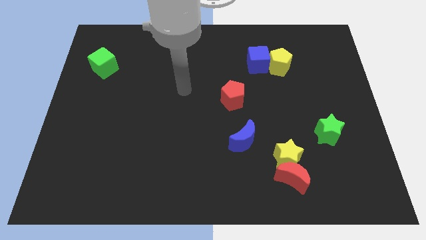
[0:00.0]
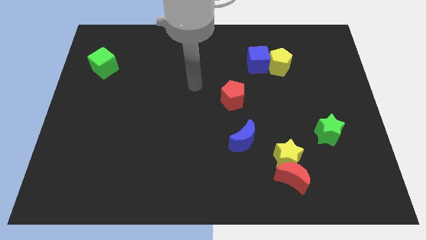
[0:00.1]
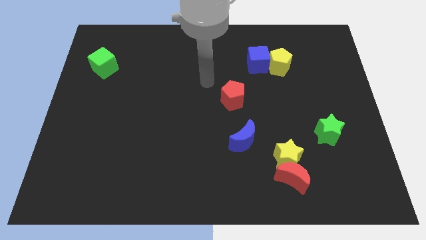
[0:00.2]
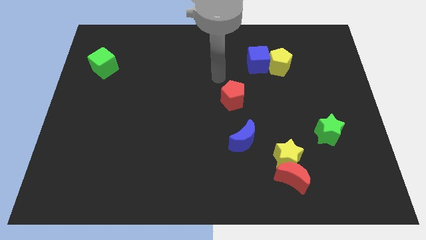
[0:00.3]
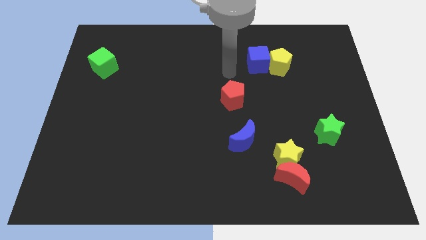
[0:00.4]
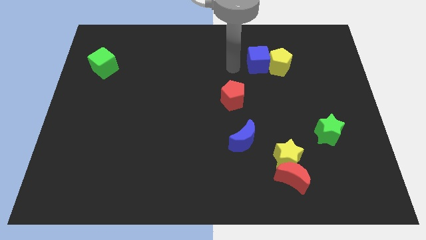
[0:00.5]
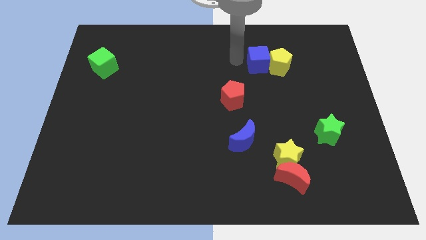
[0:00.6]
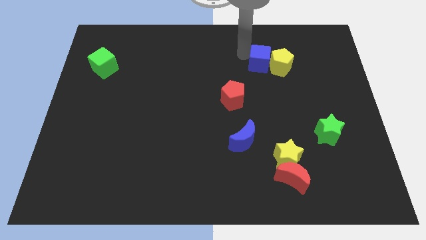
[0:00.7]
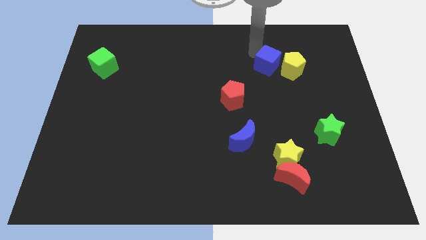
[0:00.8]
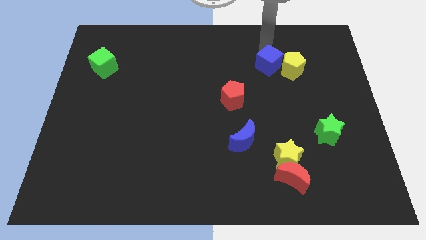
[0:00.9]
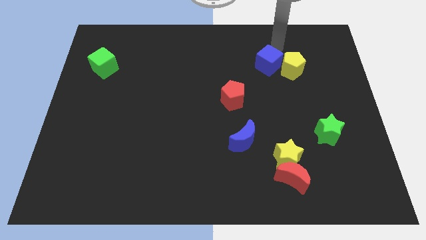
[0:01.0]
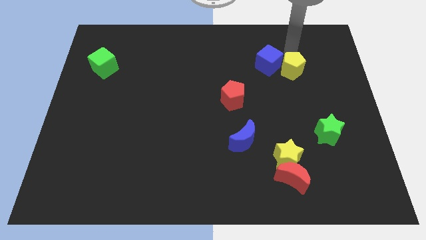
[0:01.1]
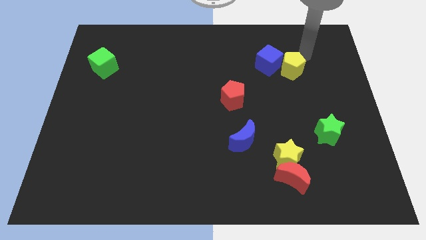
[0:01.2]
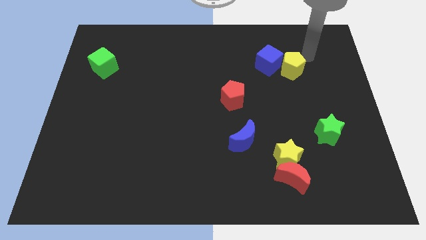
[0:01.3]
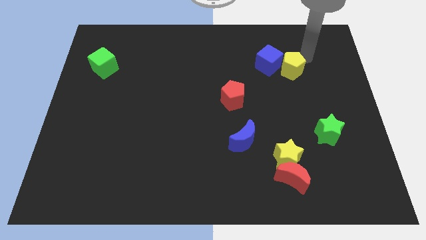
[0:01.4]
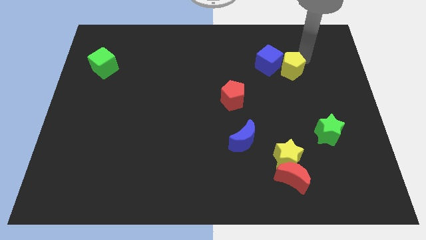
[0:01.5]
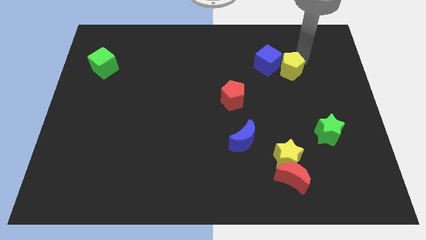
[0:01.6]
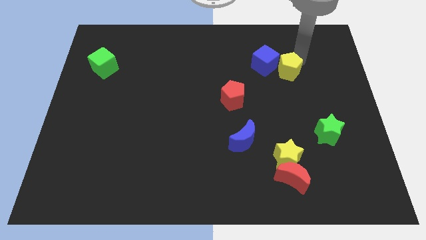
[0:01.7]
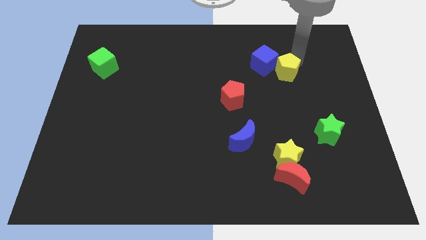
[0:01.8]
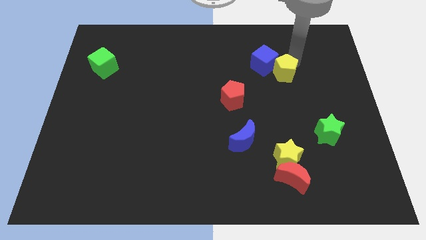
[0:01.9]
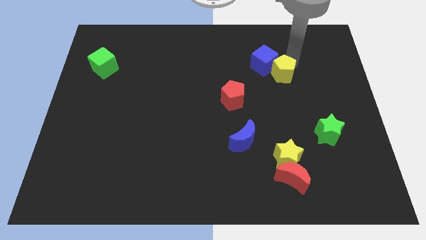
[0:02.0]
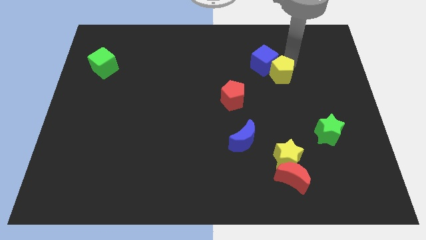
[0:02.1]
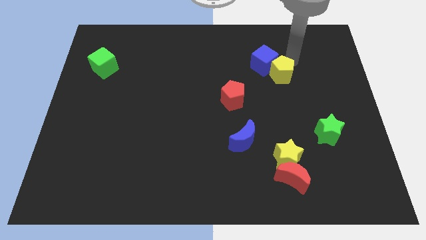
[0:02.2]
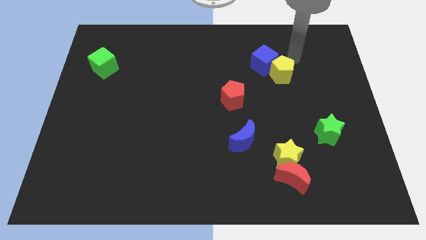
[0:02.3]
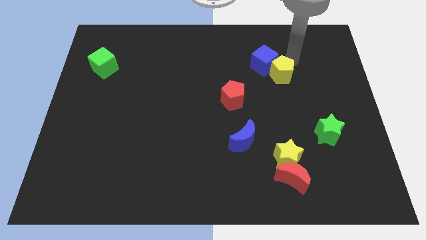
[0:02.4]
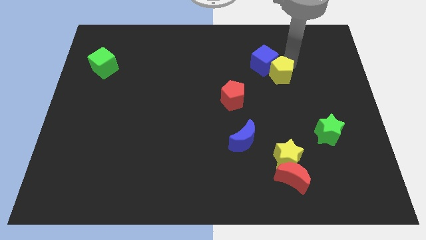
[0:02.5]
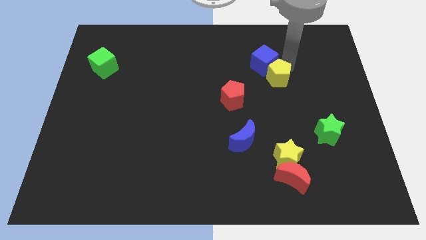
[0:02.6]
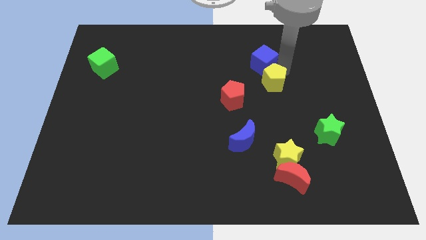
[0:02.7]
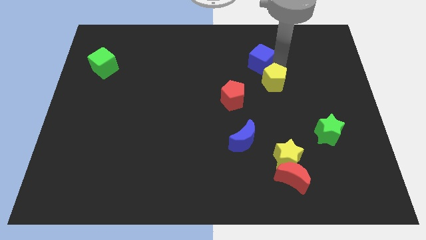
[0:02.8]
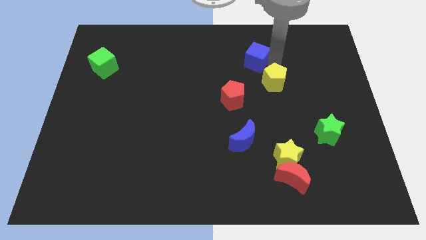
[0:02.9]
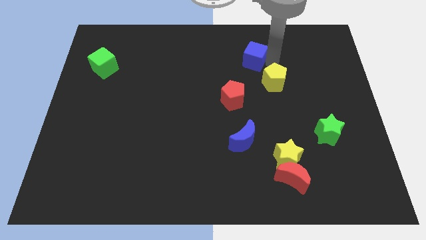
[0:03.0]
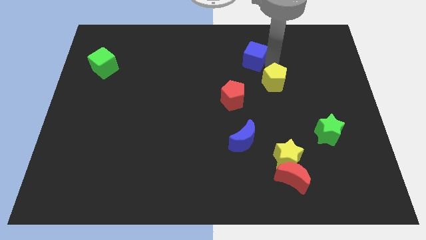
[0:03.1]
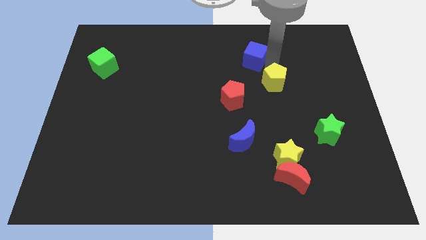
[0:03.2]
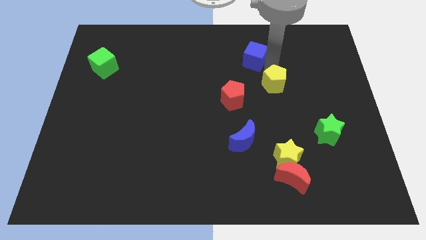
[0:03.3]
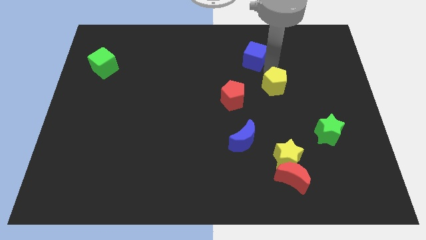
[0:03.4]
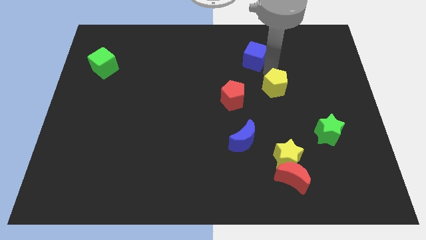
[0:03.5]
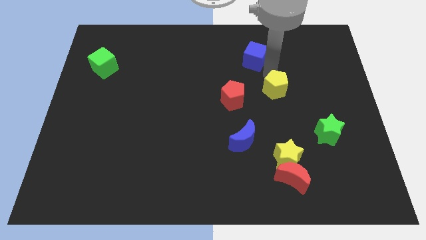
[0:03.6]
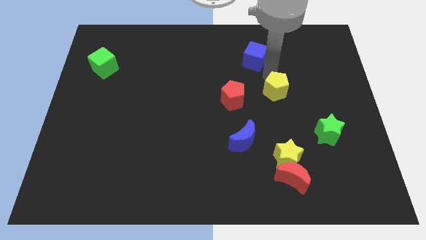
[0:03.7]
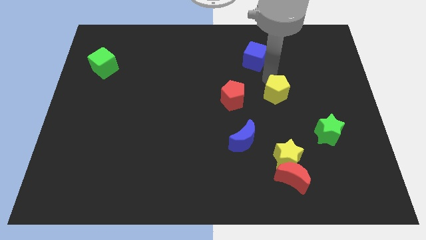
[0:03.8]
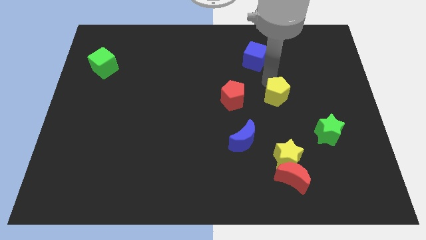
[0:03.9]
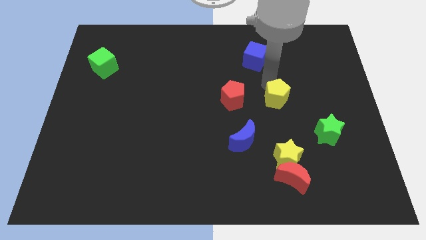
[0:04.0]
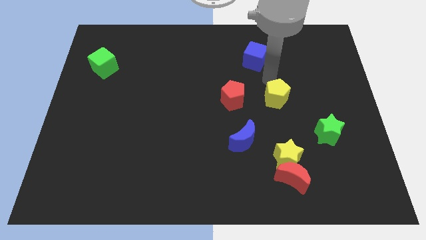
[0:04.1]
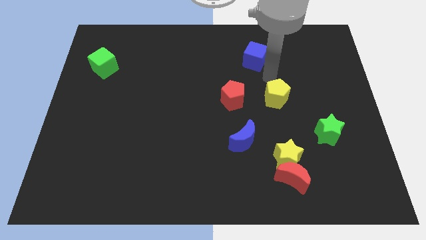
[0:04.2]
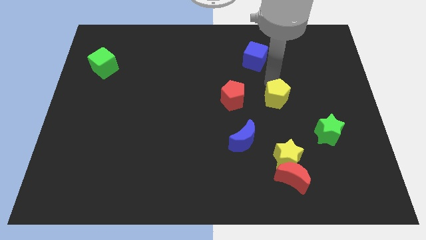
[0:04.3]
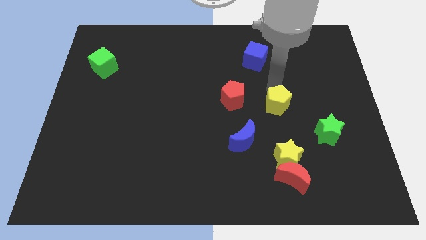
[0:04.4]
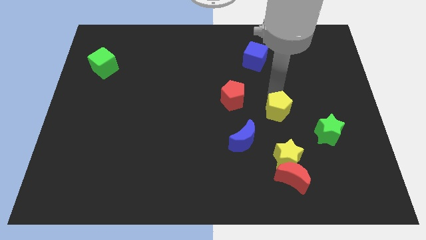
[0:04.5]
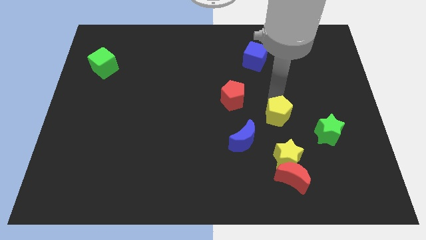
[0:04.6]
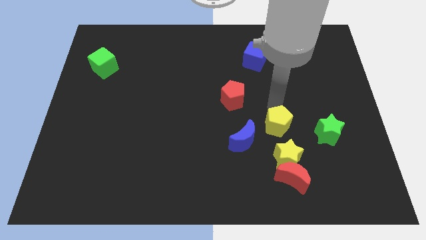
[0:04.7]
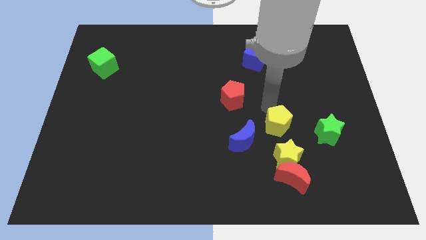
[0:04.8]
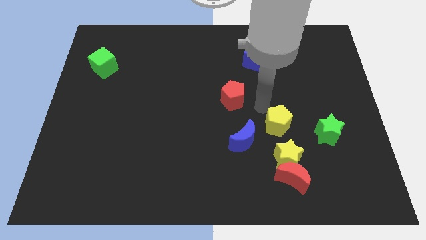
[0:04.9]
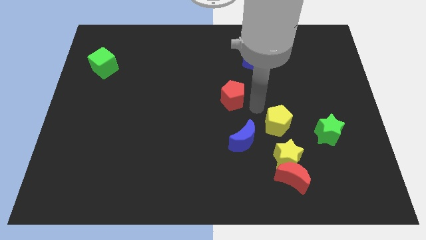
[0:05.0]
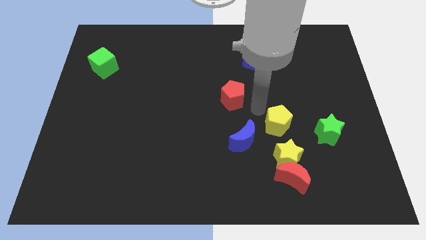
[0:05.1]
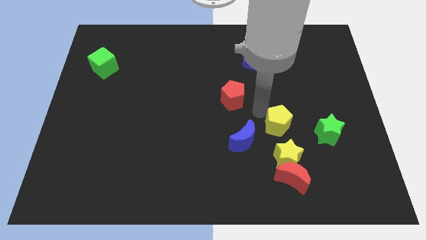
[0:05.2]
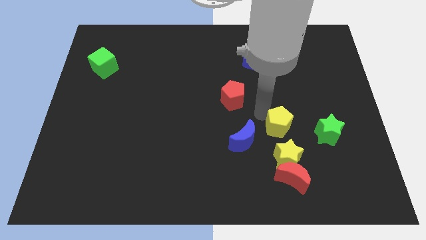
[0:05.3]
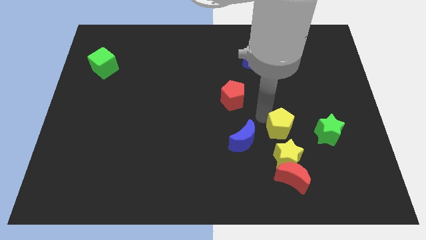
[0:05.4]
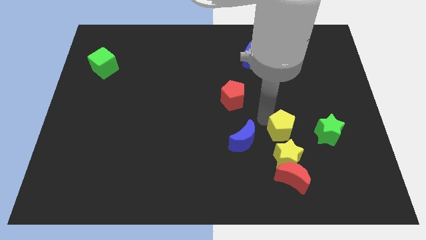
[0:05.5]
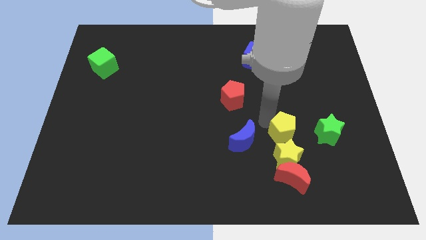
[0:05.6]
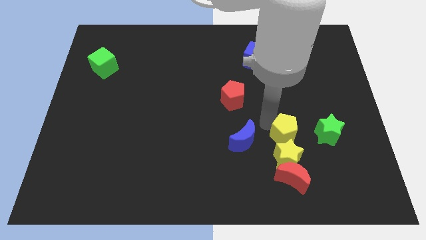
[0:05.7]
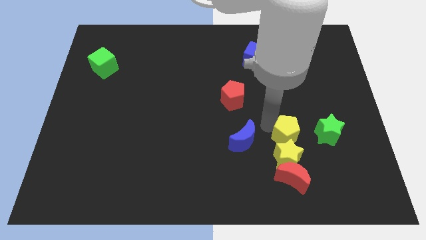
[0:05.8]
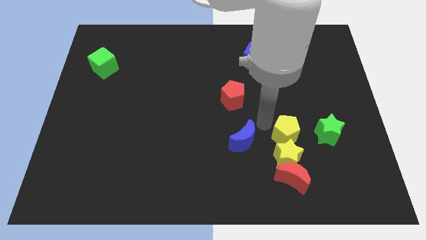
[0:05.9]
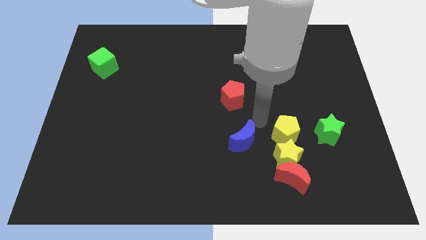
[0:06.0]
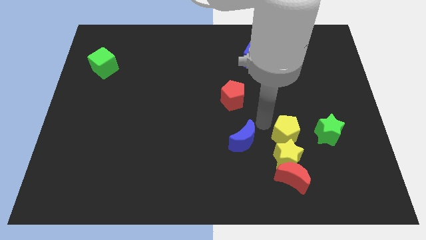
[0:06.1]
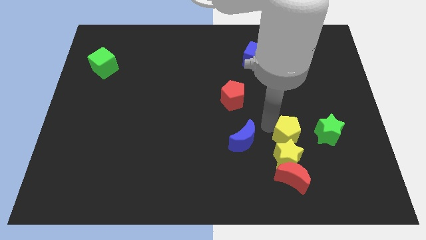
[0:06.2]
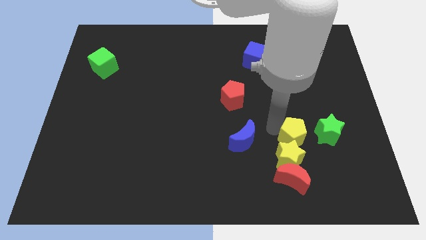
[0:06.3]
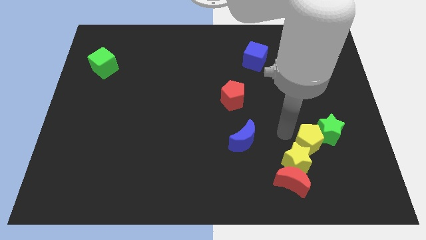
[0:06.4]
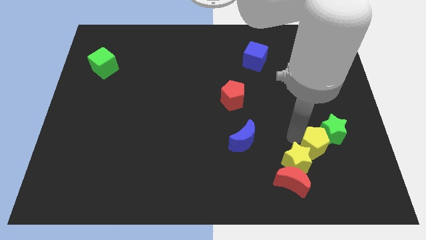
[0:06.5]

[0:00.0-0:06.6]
push the yellow pentagon just right of the yellow star

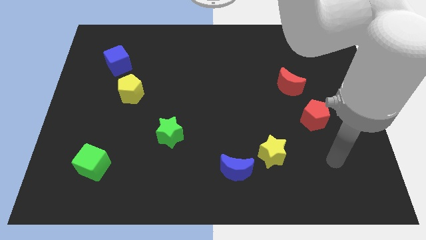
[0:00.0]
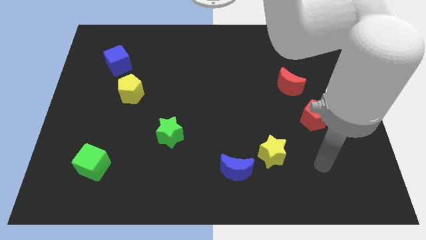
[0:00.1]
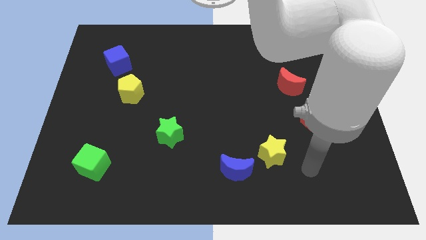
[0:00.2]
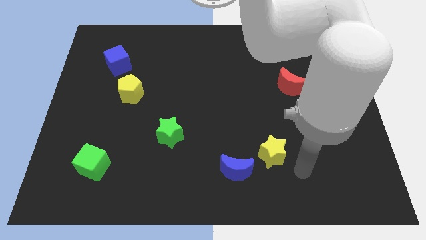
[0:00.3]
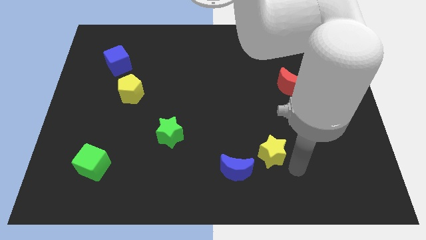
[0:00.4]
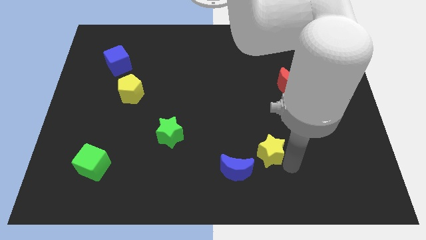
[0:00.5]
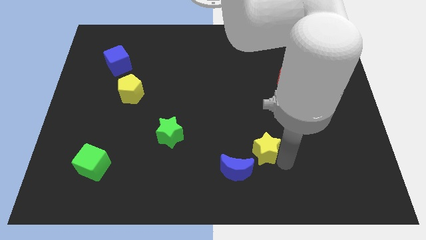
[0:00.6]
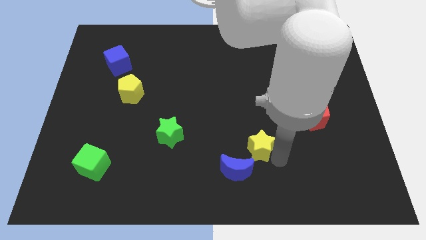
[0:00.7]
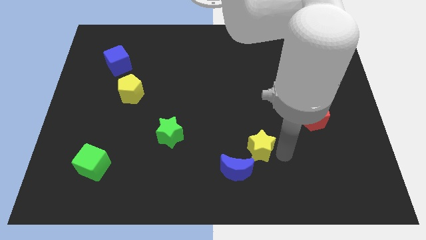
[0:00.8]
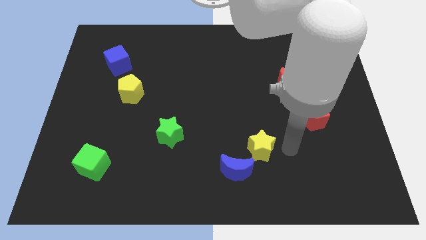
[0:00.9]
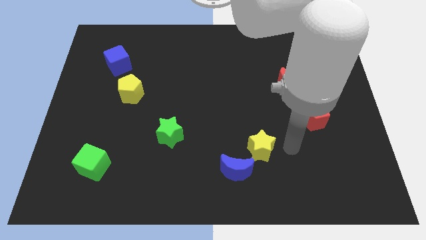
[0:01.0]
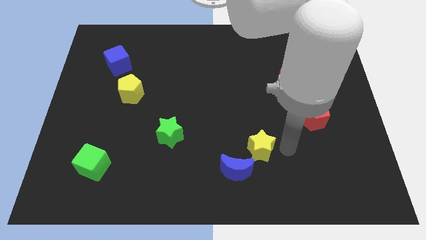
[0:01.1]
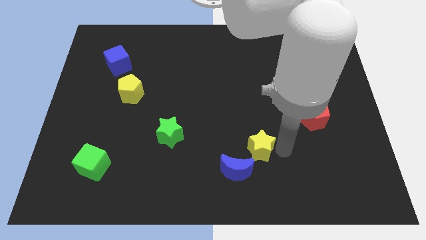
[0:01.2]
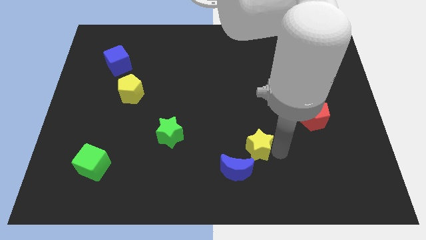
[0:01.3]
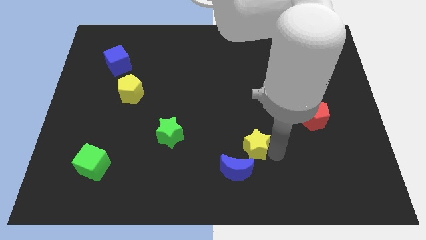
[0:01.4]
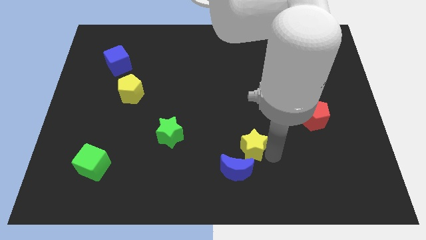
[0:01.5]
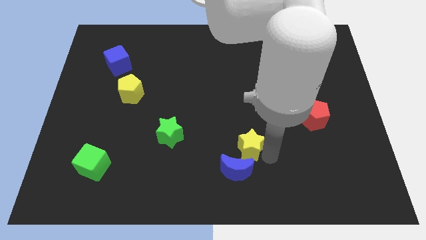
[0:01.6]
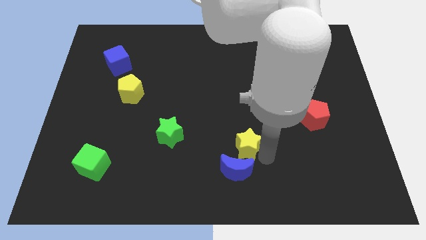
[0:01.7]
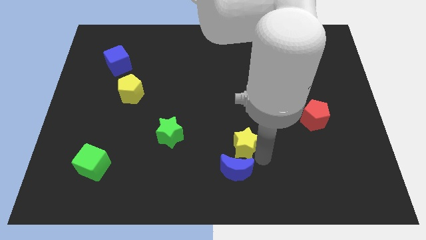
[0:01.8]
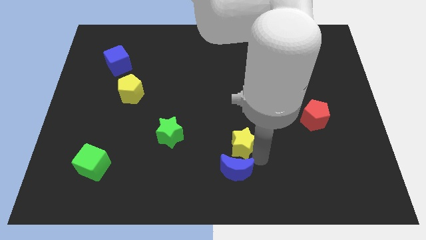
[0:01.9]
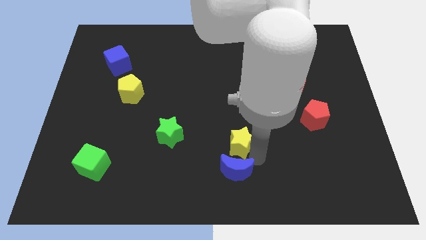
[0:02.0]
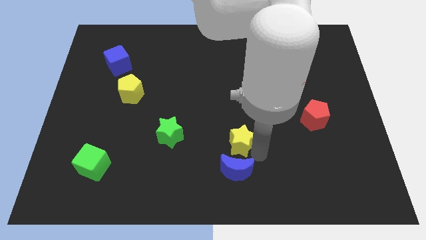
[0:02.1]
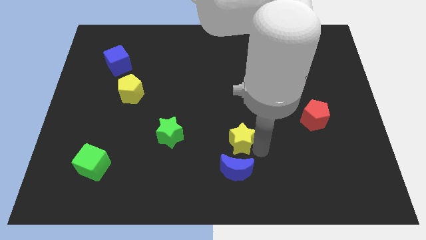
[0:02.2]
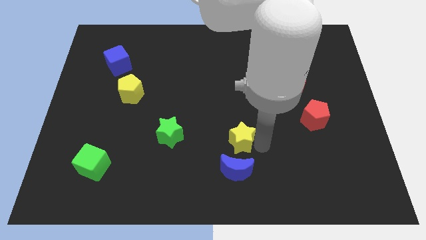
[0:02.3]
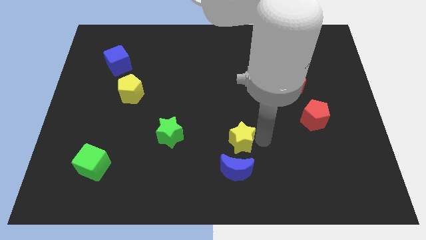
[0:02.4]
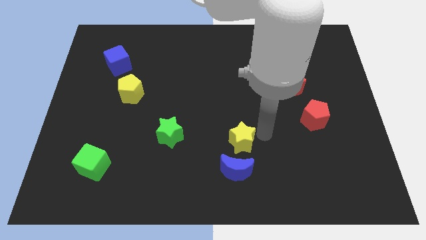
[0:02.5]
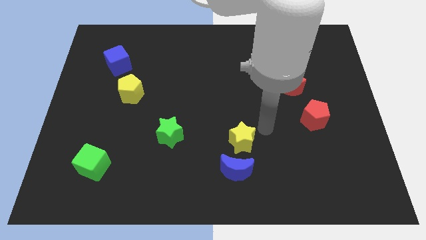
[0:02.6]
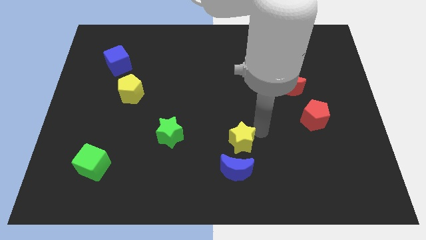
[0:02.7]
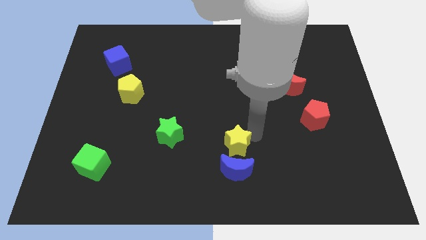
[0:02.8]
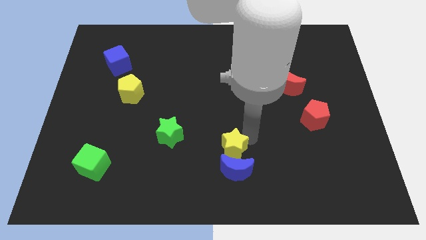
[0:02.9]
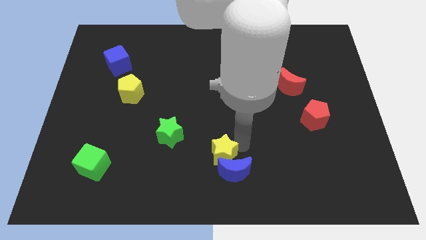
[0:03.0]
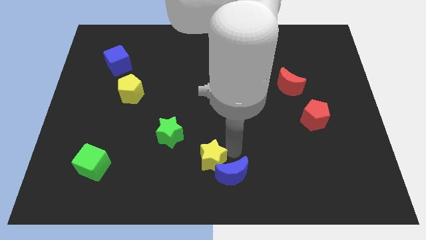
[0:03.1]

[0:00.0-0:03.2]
push the yellow star left of the blue moon
